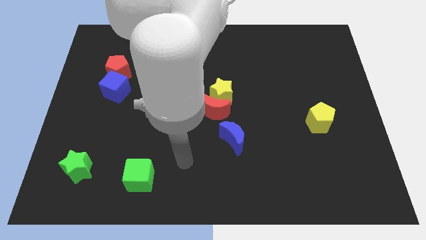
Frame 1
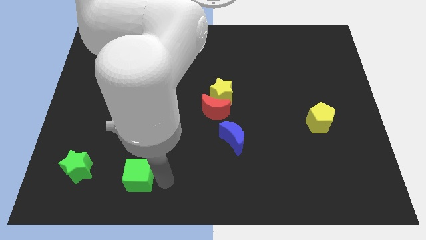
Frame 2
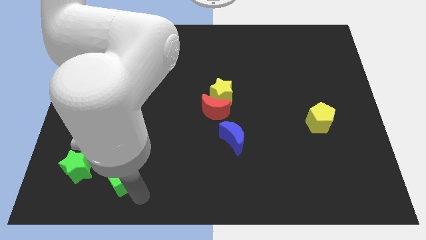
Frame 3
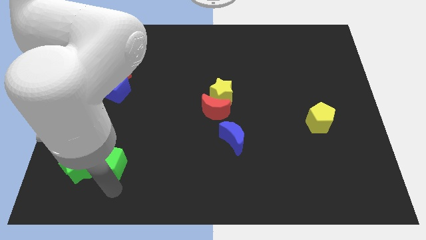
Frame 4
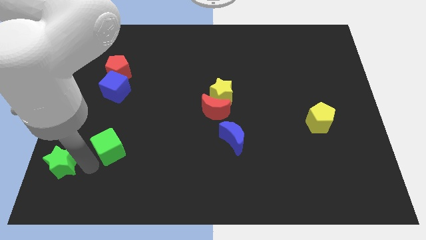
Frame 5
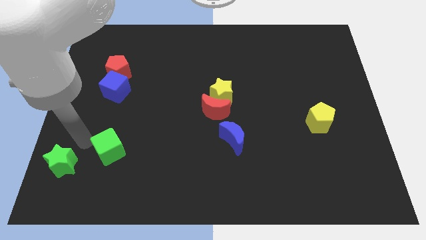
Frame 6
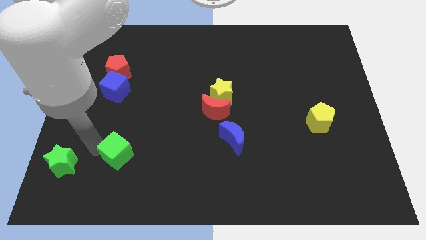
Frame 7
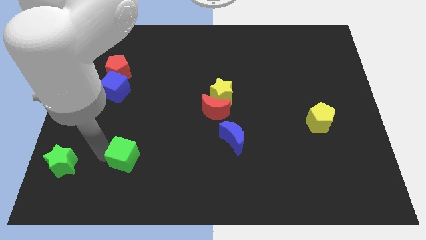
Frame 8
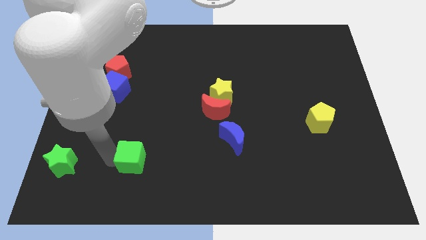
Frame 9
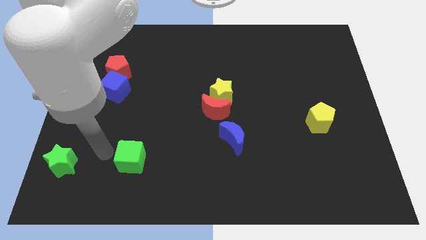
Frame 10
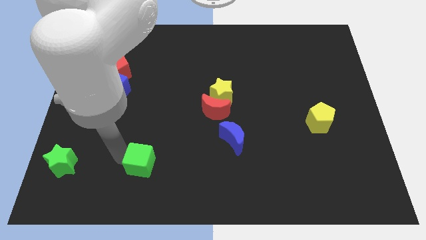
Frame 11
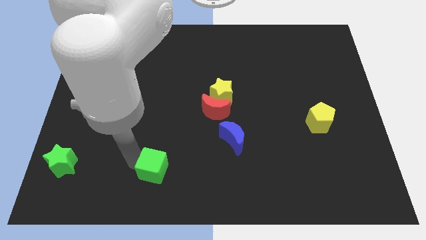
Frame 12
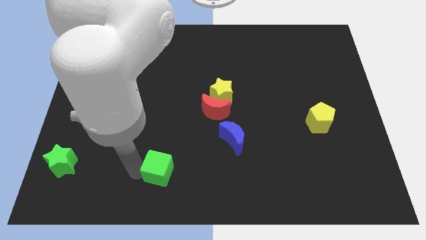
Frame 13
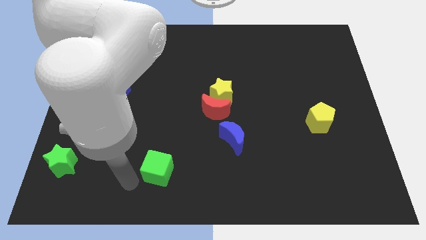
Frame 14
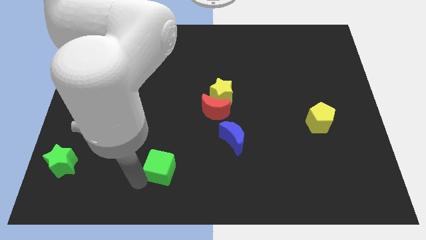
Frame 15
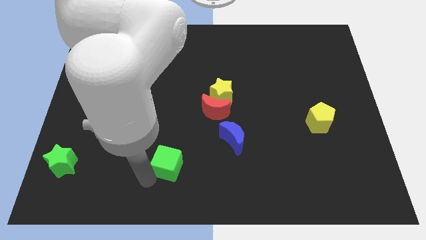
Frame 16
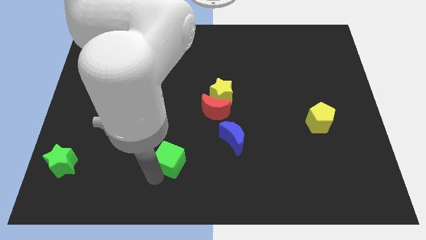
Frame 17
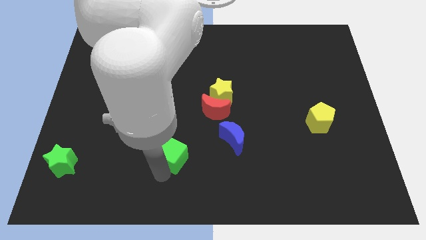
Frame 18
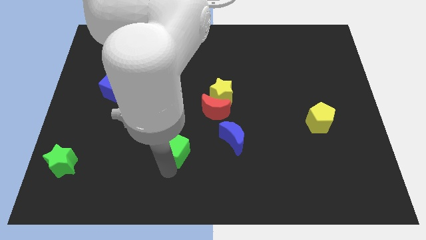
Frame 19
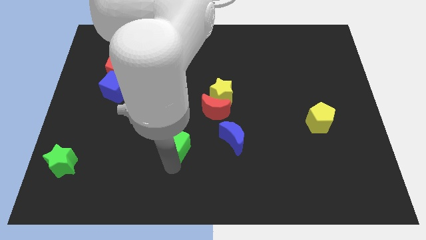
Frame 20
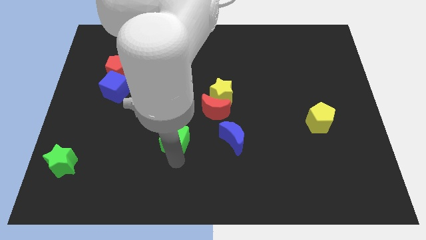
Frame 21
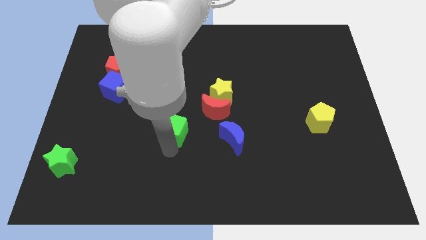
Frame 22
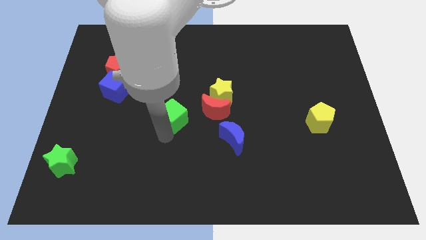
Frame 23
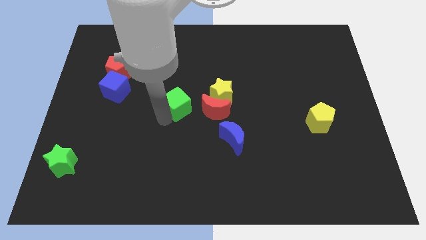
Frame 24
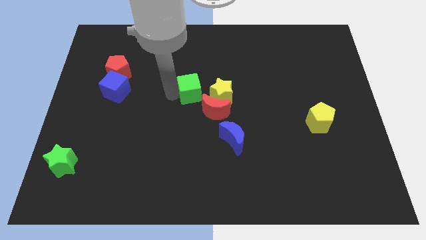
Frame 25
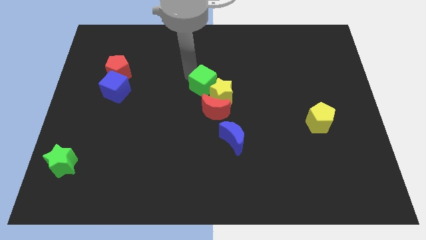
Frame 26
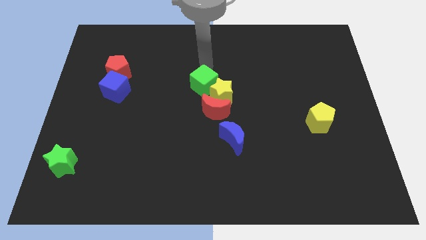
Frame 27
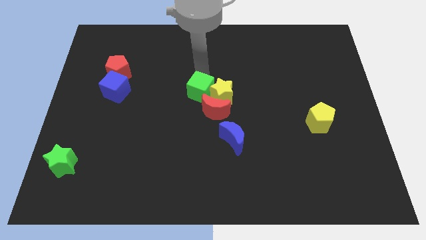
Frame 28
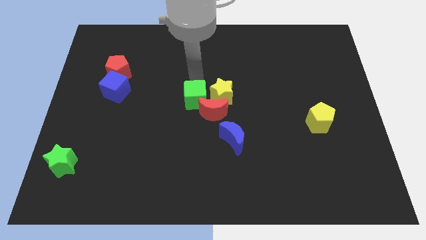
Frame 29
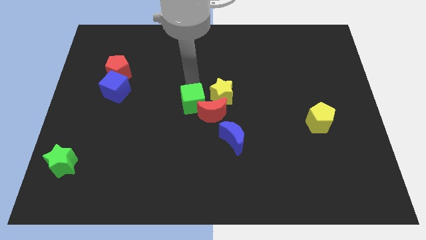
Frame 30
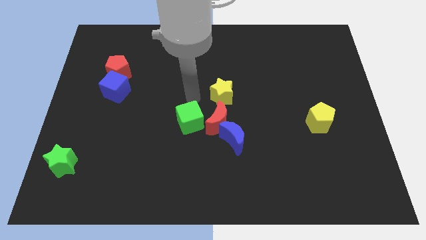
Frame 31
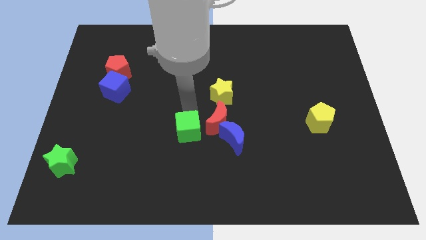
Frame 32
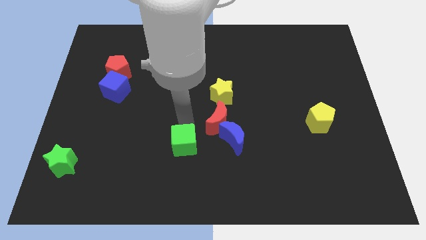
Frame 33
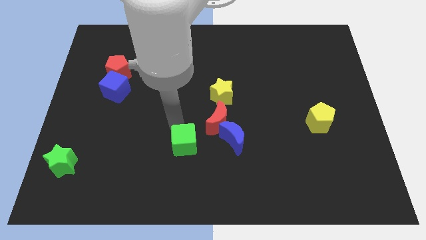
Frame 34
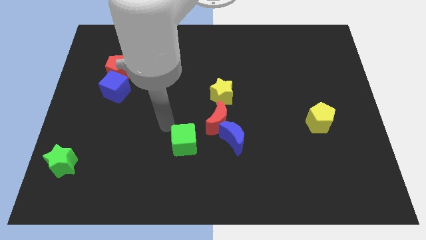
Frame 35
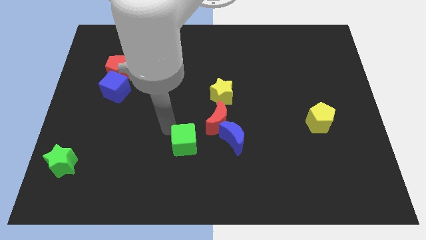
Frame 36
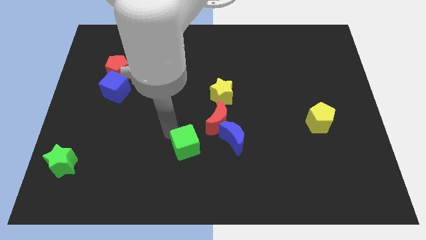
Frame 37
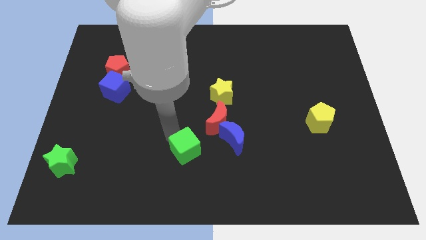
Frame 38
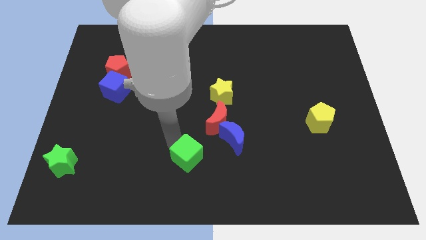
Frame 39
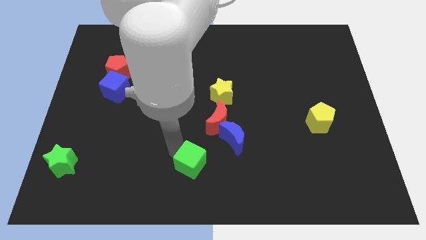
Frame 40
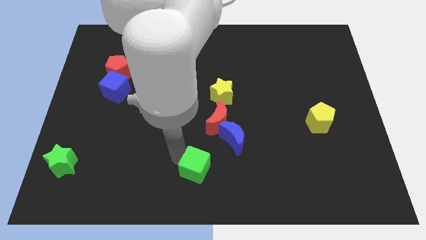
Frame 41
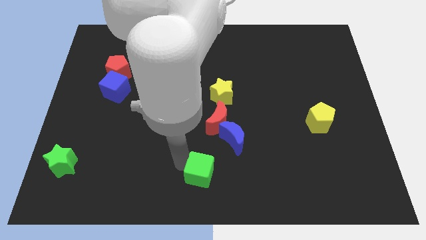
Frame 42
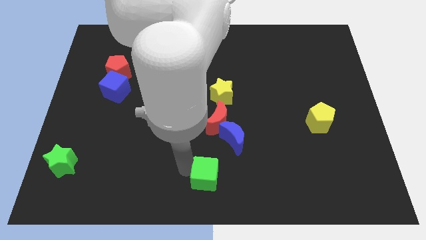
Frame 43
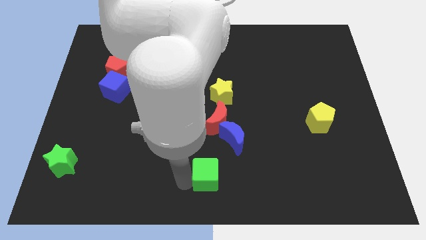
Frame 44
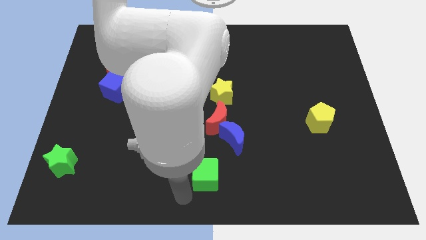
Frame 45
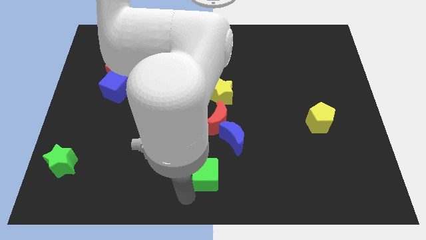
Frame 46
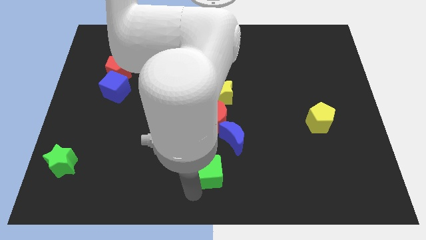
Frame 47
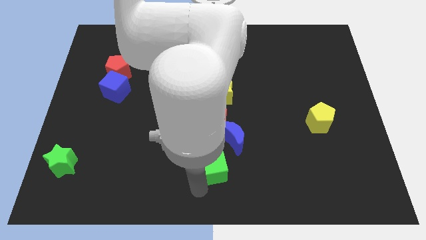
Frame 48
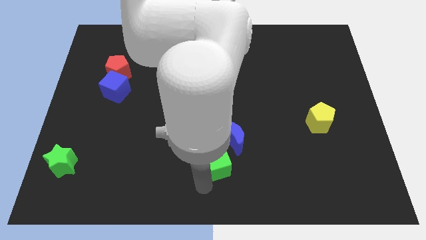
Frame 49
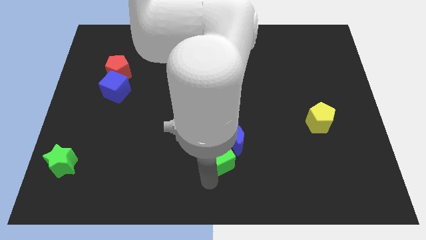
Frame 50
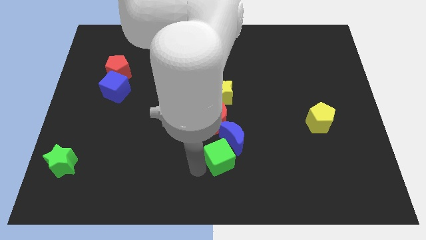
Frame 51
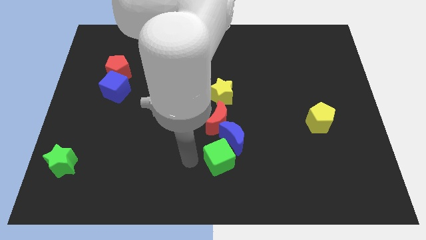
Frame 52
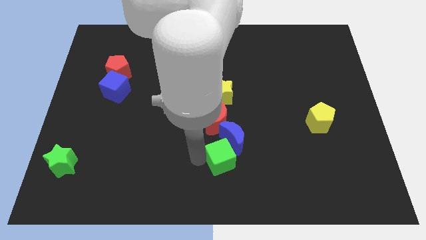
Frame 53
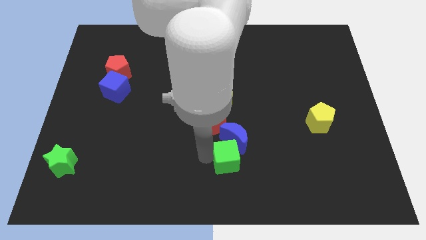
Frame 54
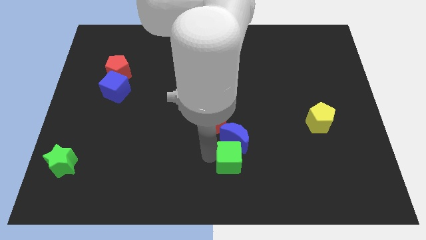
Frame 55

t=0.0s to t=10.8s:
put the green cube to the bottom right side of the blue moon

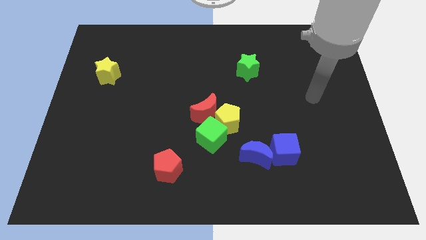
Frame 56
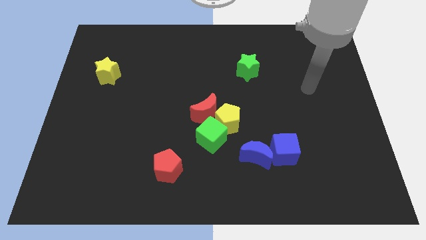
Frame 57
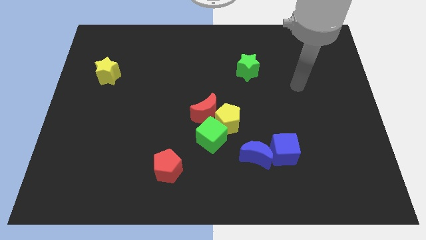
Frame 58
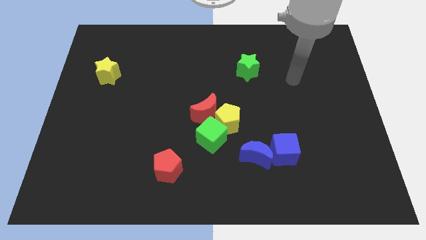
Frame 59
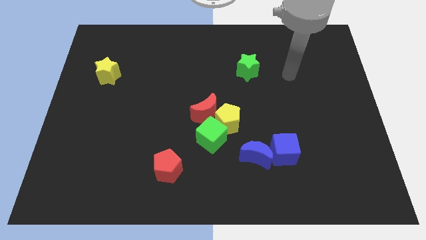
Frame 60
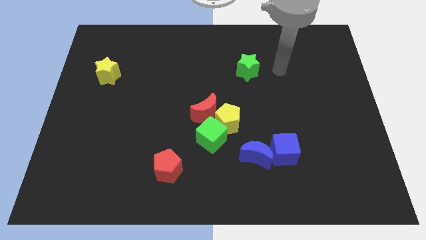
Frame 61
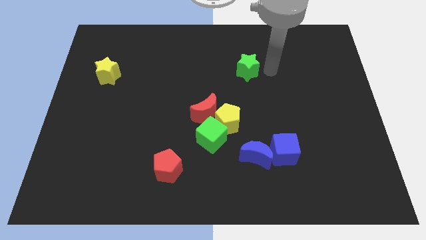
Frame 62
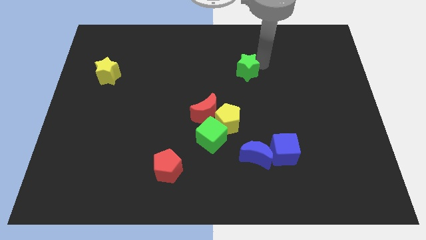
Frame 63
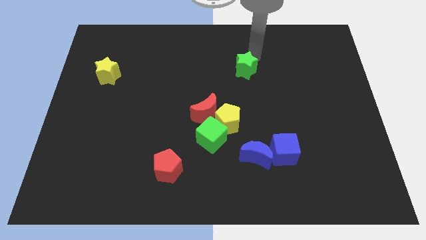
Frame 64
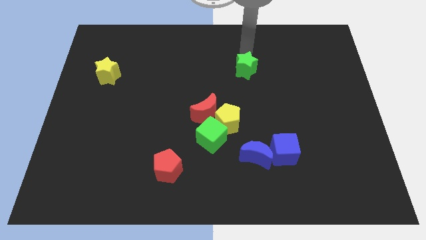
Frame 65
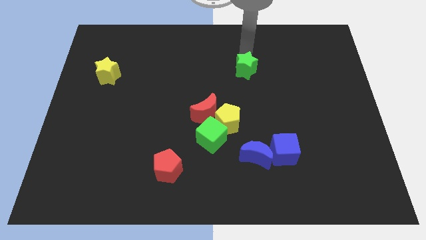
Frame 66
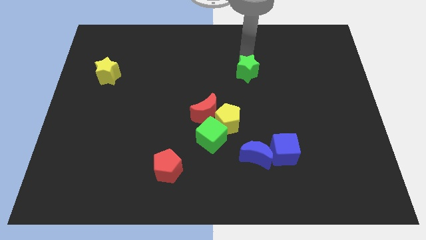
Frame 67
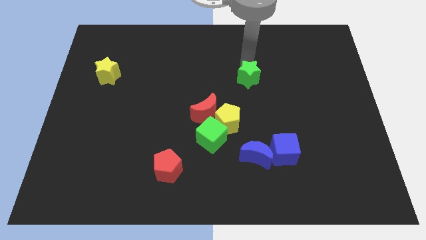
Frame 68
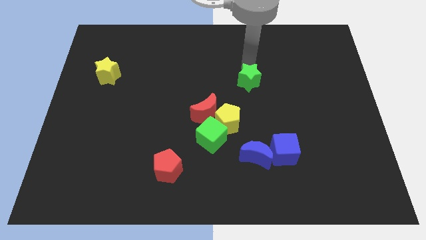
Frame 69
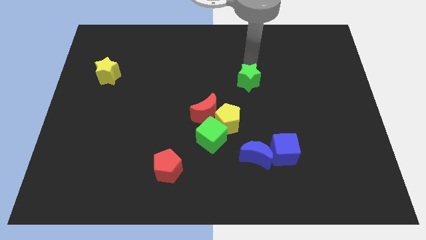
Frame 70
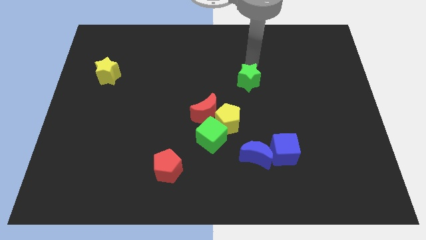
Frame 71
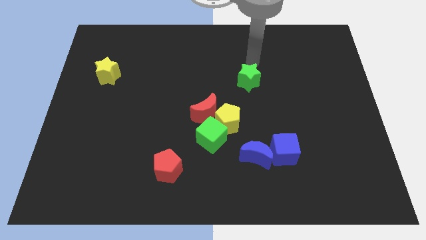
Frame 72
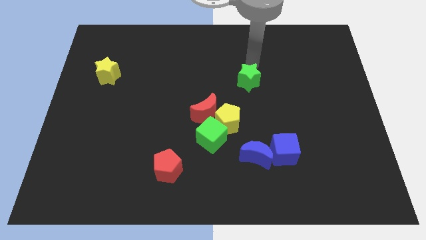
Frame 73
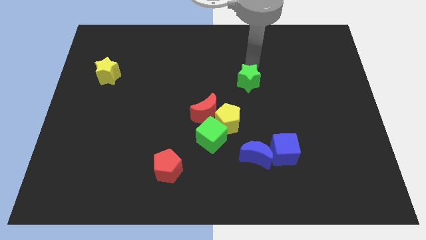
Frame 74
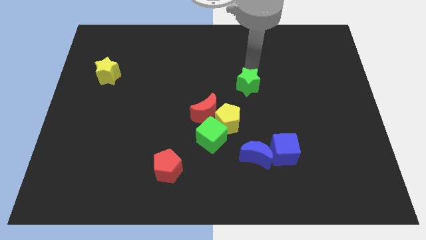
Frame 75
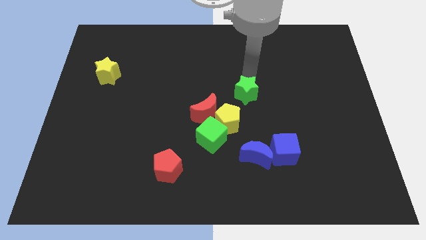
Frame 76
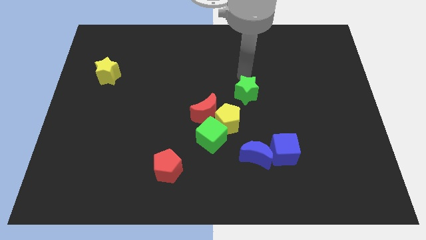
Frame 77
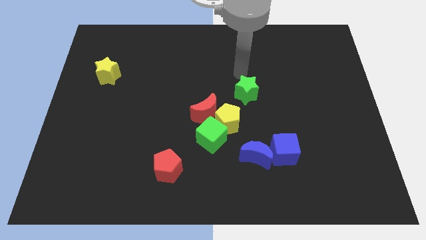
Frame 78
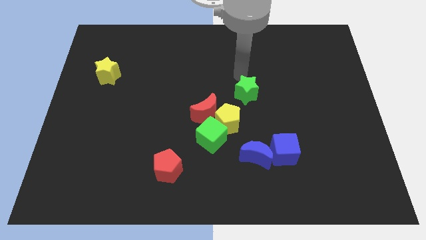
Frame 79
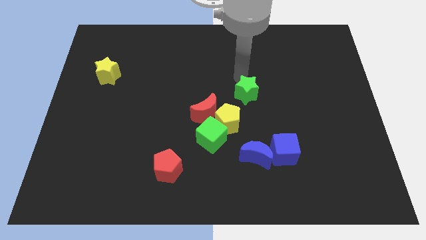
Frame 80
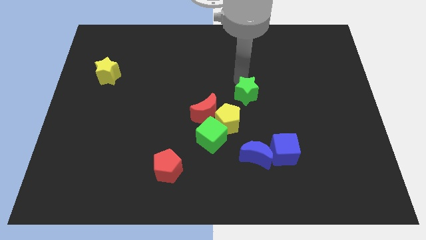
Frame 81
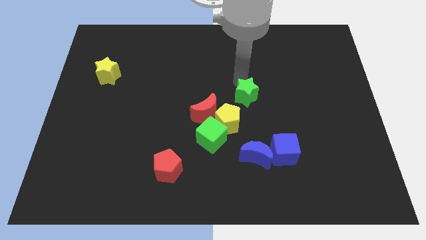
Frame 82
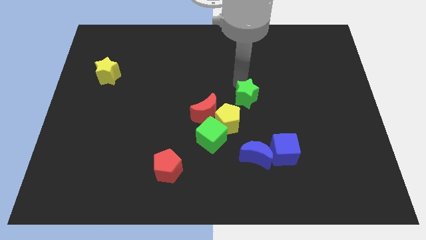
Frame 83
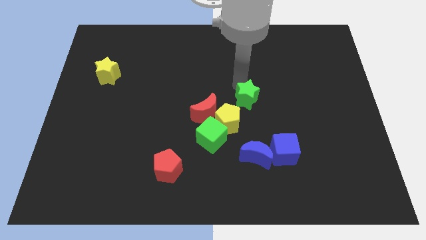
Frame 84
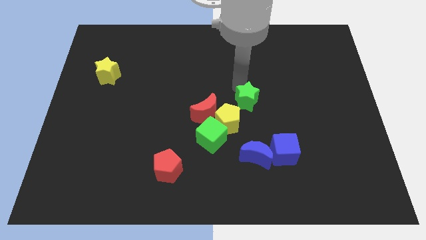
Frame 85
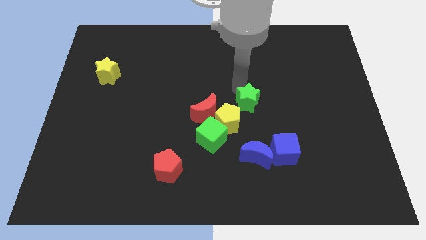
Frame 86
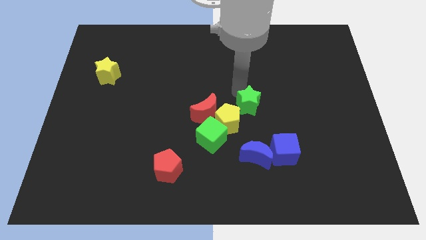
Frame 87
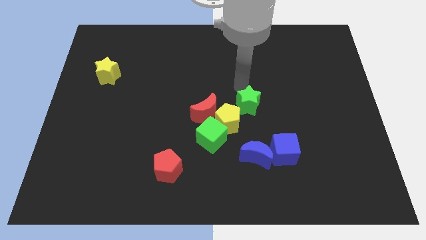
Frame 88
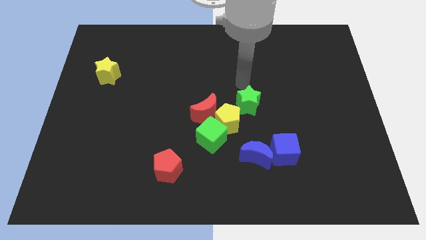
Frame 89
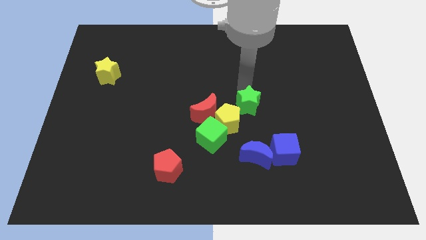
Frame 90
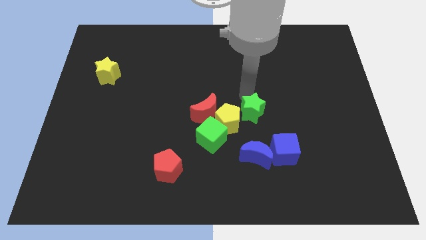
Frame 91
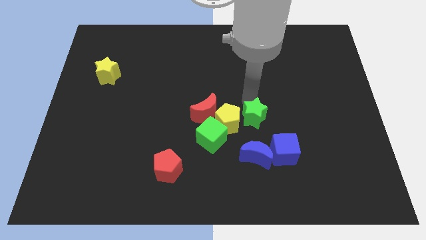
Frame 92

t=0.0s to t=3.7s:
slide the green star to the top left of the blue cube
